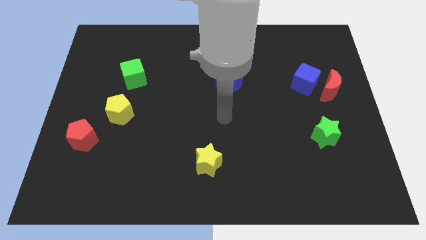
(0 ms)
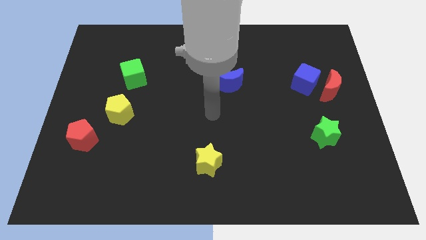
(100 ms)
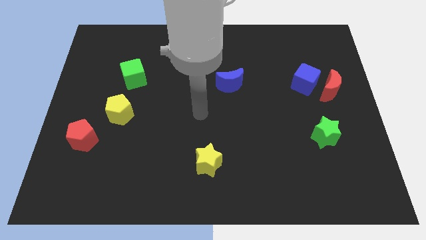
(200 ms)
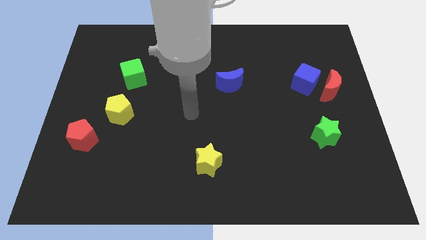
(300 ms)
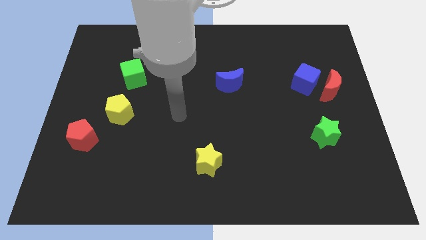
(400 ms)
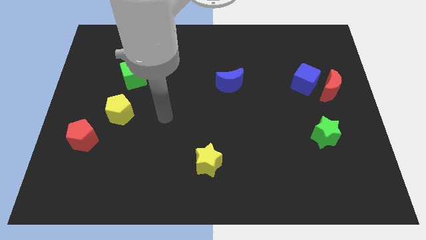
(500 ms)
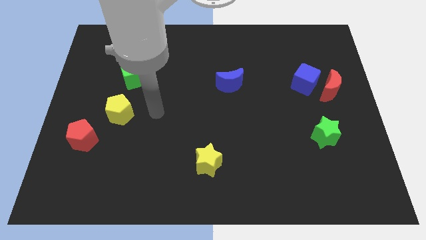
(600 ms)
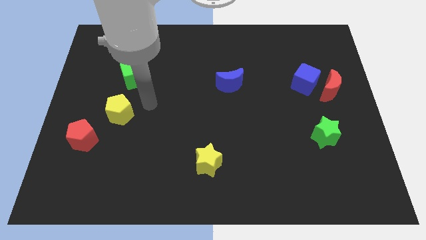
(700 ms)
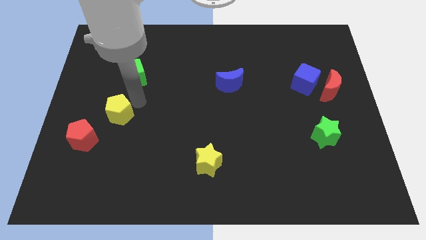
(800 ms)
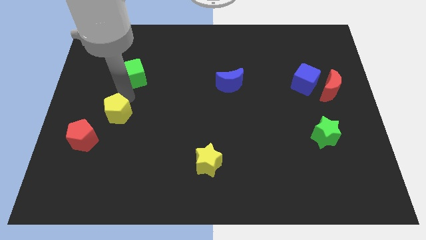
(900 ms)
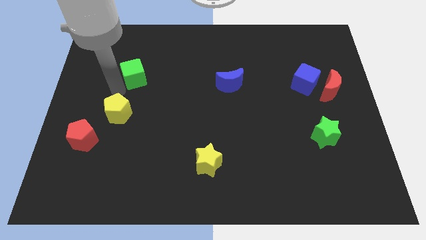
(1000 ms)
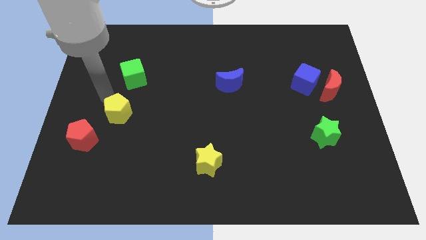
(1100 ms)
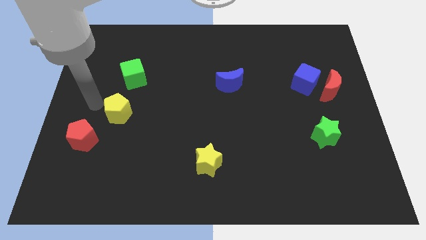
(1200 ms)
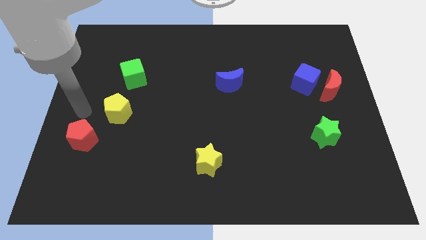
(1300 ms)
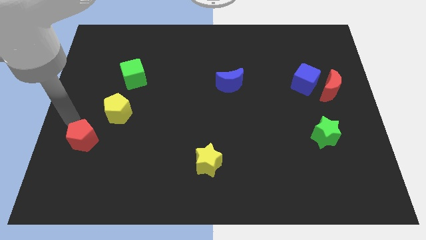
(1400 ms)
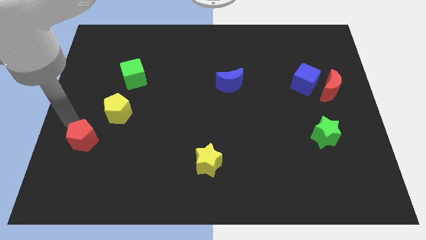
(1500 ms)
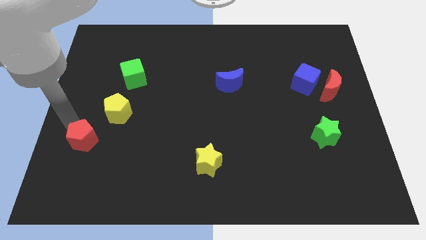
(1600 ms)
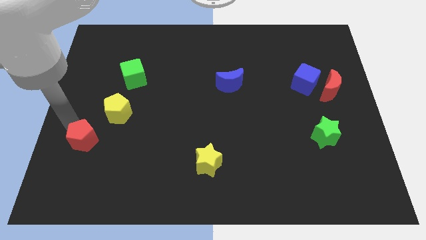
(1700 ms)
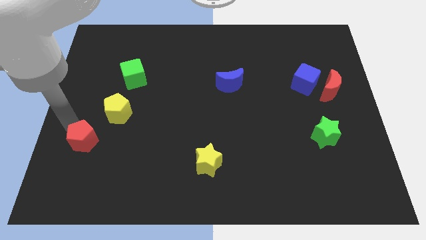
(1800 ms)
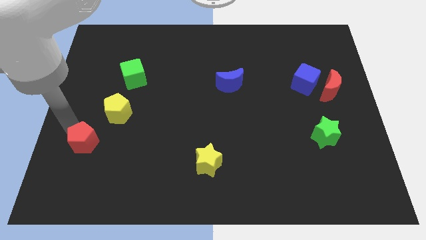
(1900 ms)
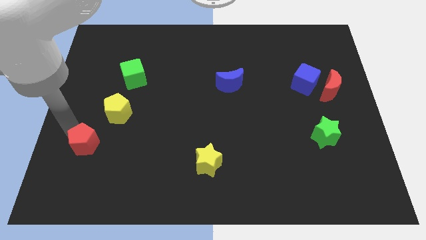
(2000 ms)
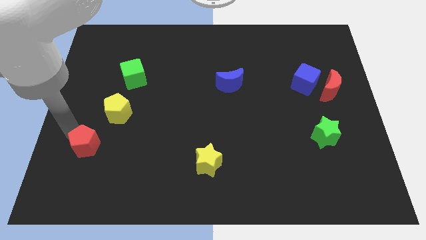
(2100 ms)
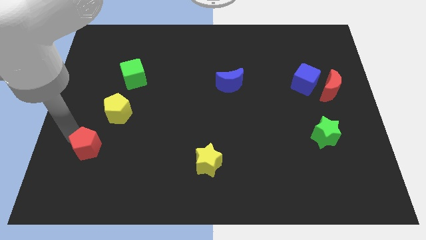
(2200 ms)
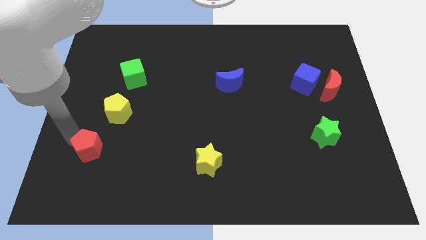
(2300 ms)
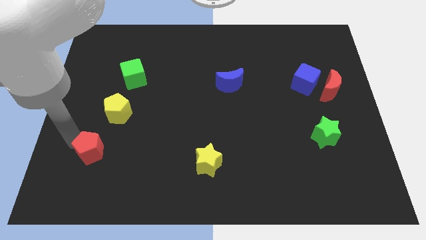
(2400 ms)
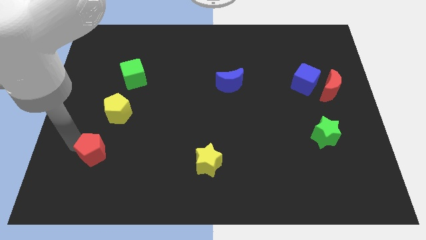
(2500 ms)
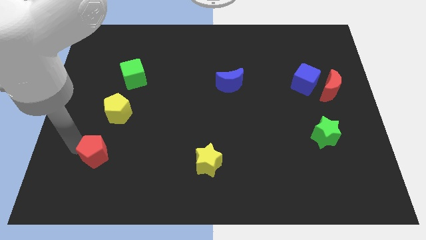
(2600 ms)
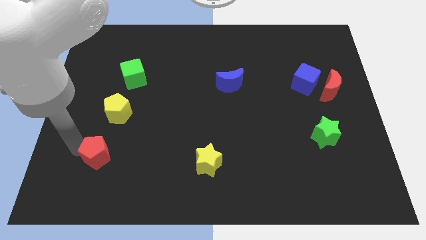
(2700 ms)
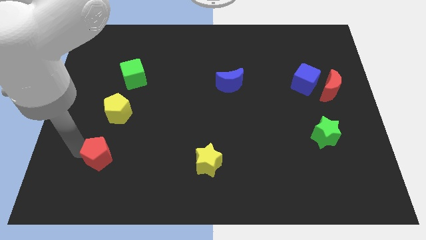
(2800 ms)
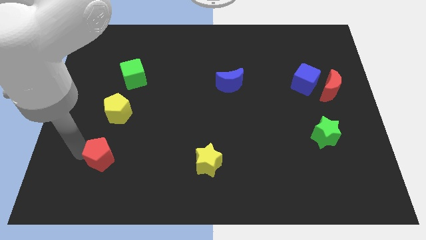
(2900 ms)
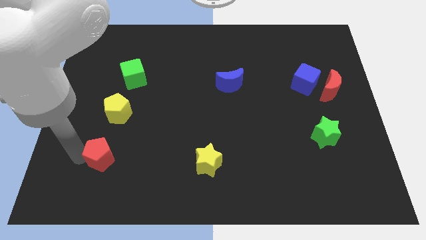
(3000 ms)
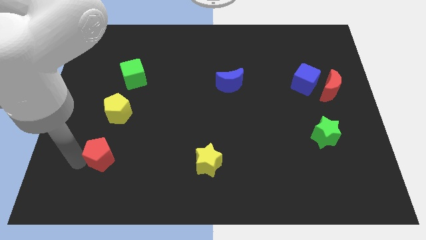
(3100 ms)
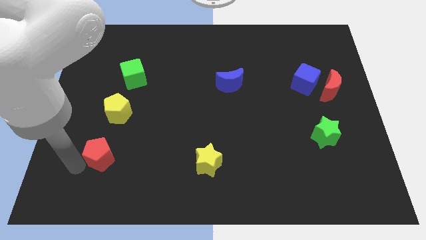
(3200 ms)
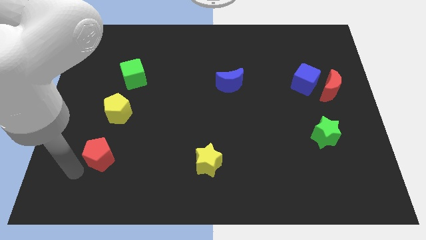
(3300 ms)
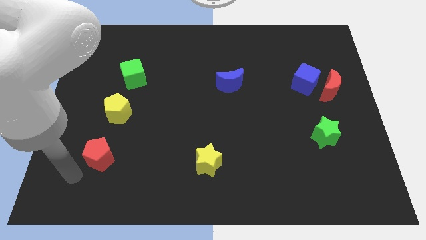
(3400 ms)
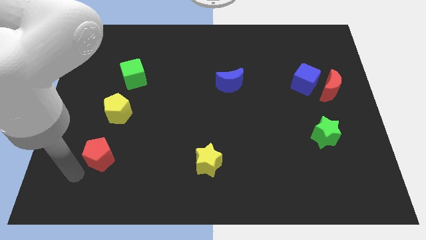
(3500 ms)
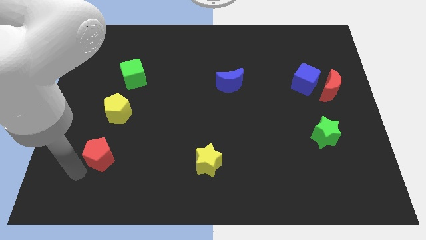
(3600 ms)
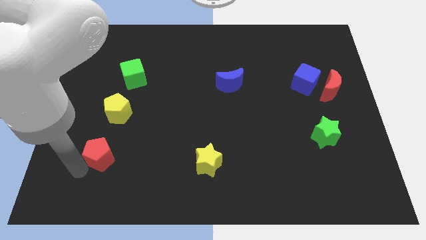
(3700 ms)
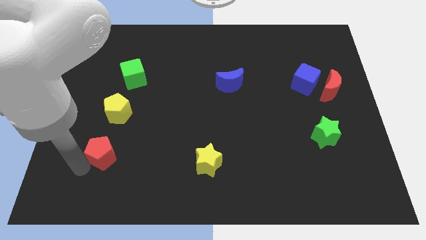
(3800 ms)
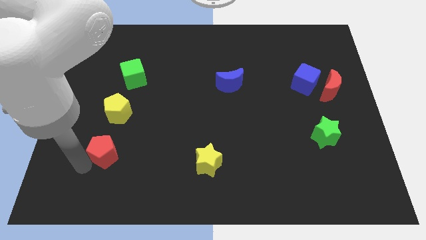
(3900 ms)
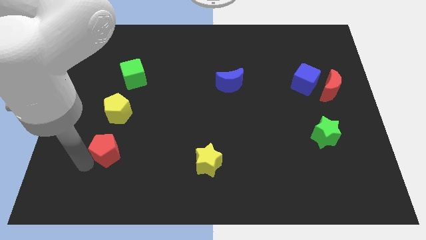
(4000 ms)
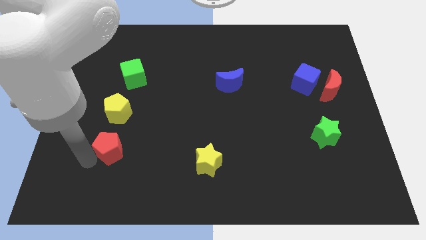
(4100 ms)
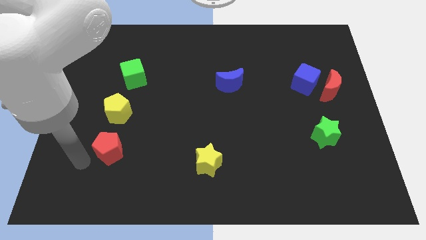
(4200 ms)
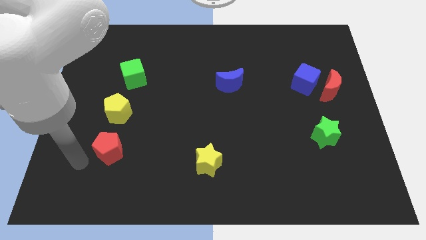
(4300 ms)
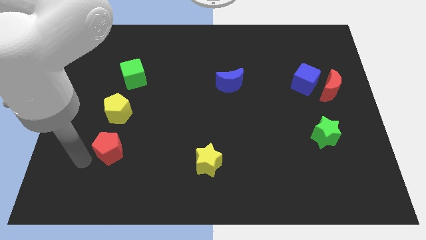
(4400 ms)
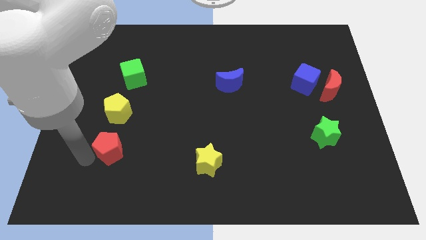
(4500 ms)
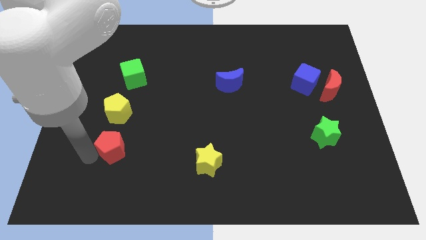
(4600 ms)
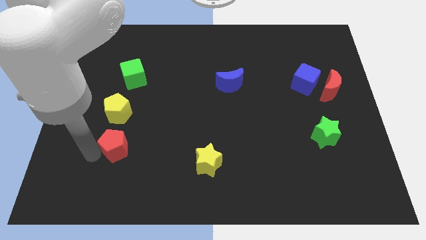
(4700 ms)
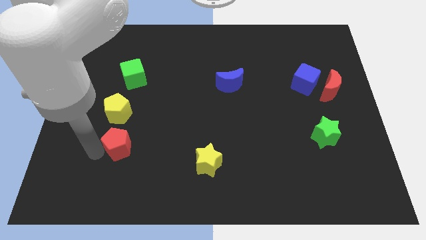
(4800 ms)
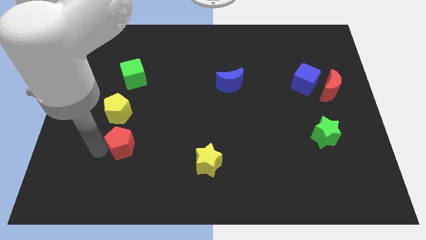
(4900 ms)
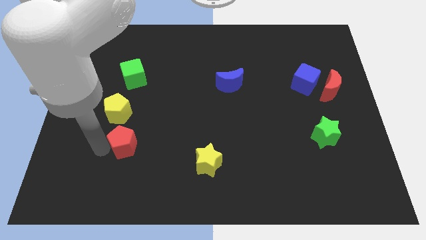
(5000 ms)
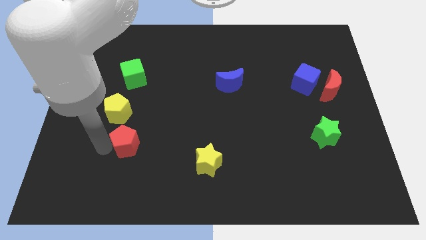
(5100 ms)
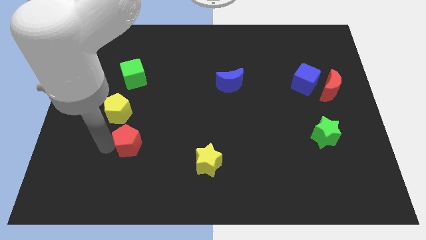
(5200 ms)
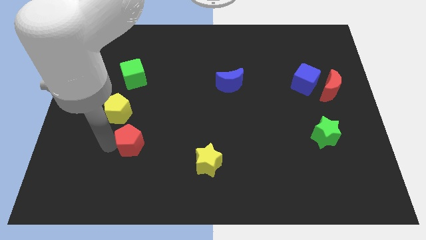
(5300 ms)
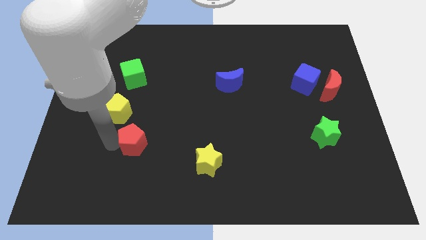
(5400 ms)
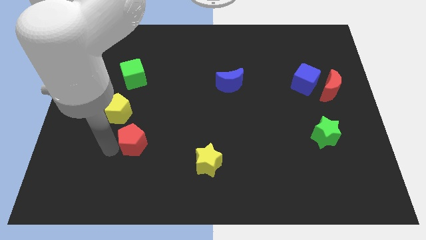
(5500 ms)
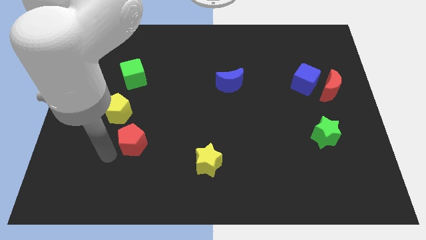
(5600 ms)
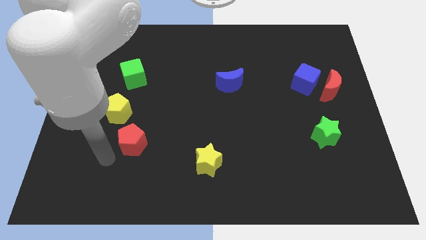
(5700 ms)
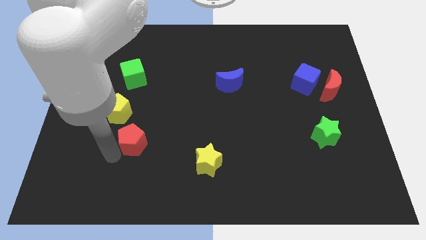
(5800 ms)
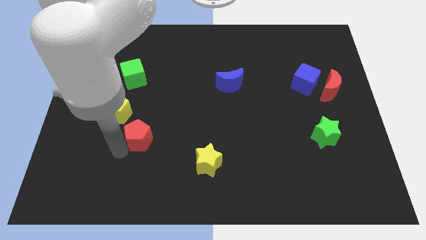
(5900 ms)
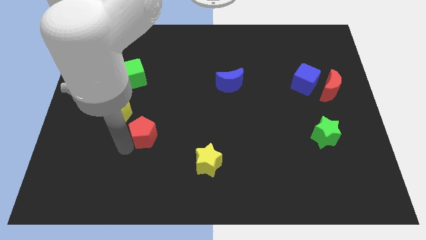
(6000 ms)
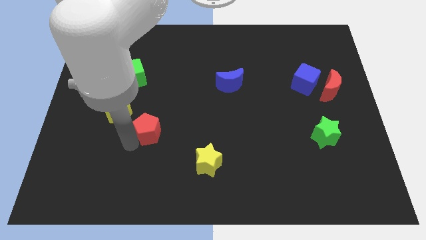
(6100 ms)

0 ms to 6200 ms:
slide the red pentagon diagonally up and to the right slightly

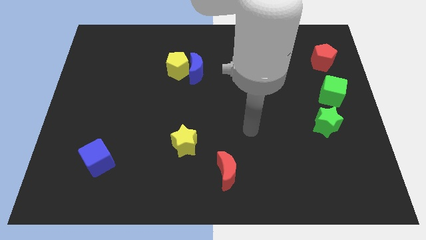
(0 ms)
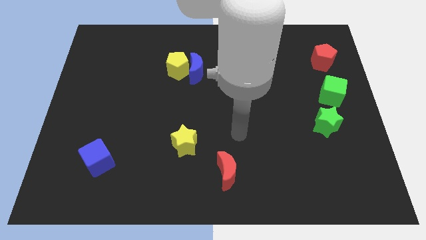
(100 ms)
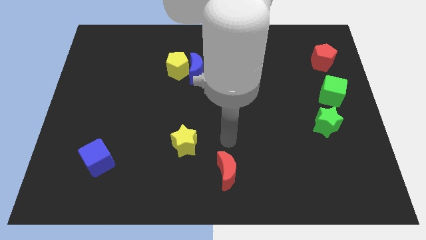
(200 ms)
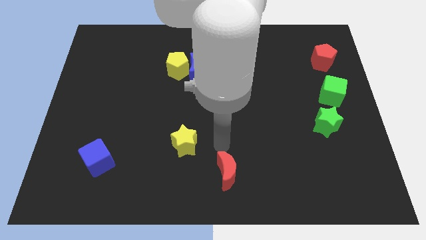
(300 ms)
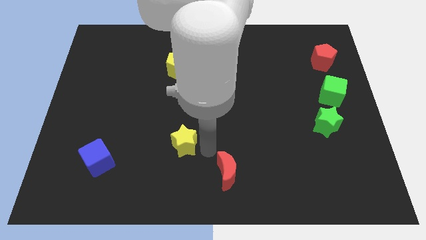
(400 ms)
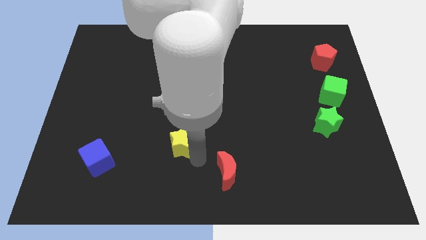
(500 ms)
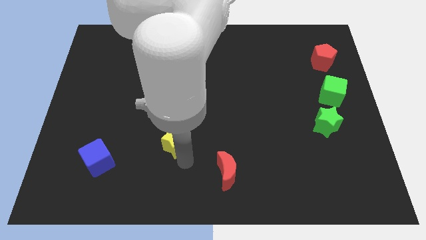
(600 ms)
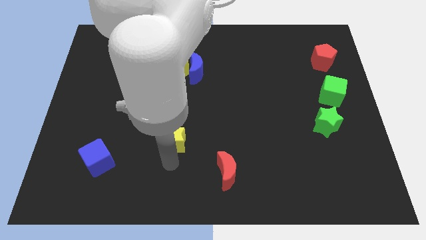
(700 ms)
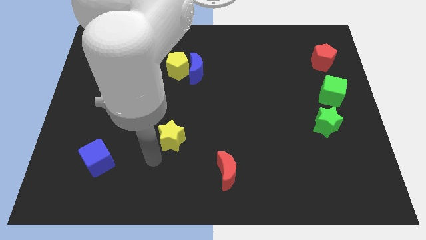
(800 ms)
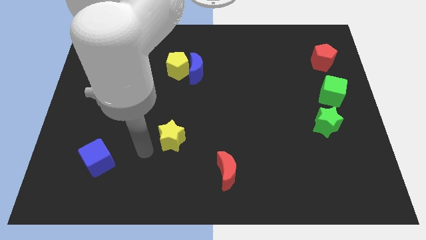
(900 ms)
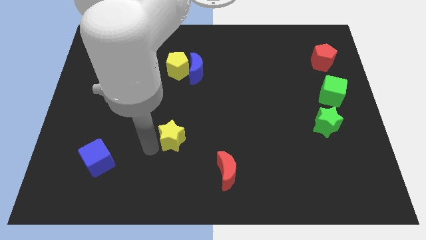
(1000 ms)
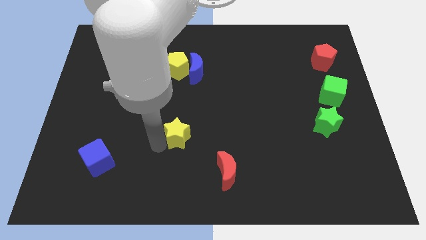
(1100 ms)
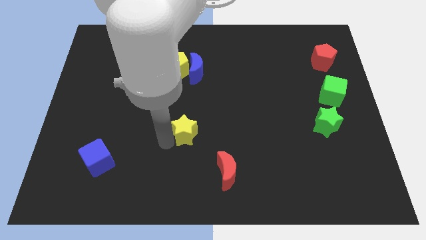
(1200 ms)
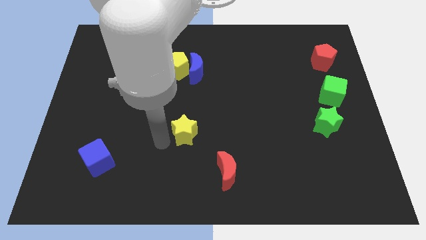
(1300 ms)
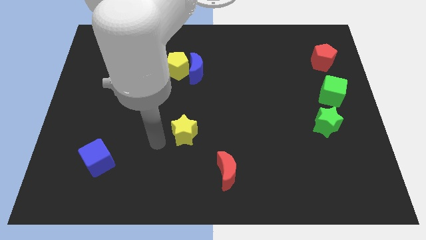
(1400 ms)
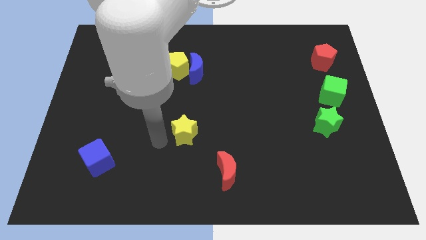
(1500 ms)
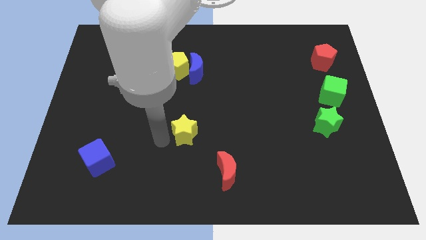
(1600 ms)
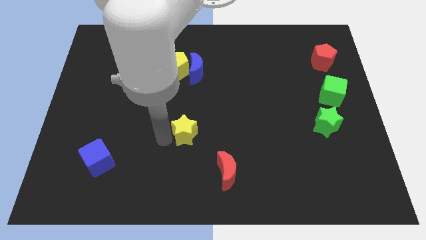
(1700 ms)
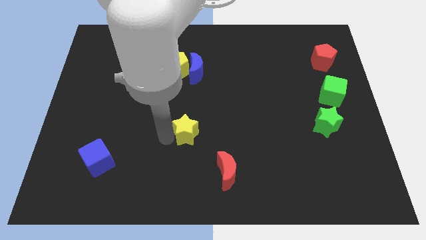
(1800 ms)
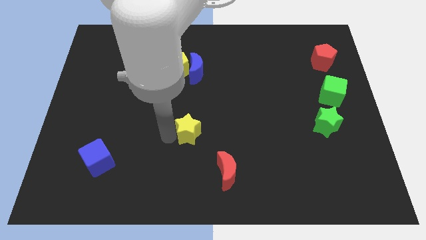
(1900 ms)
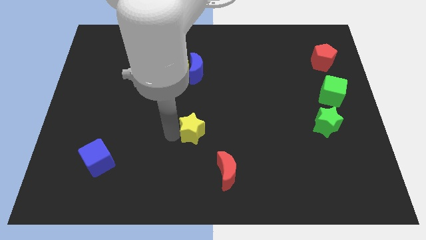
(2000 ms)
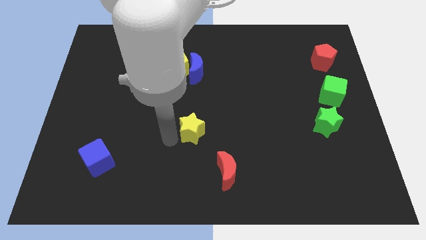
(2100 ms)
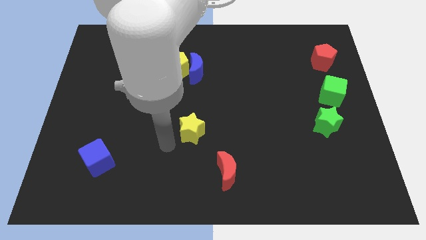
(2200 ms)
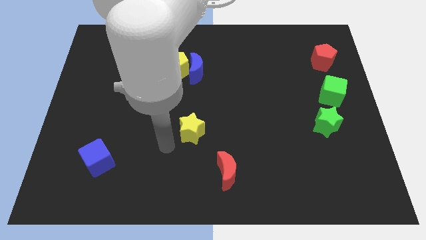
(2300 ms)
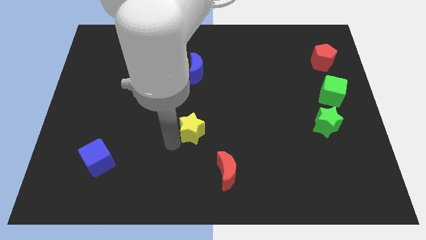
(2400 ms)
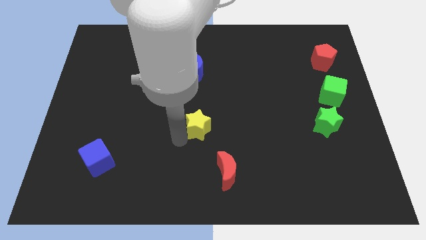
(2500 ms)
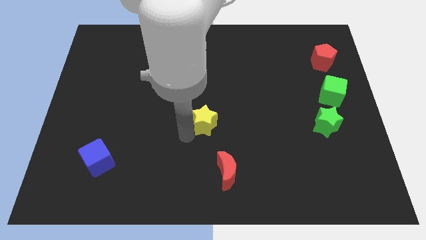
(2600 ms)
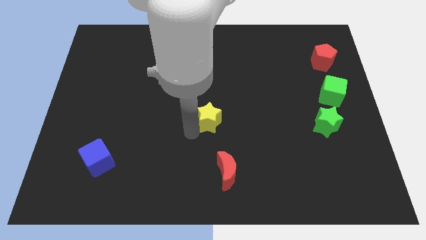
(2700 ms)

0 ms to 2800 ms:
push the yellow star a little upwards and then right
